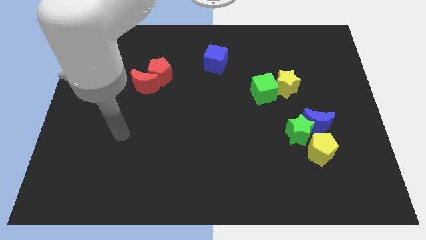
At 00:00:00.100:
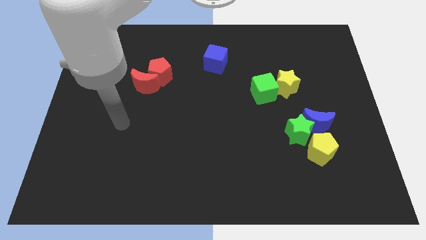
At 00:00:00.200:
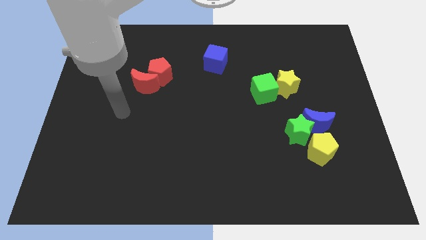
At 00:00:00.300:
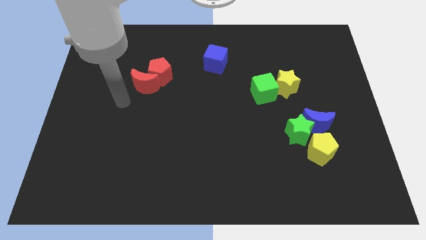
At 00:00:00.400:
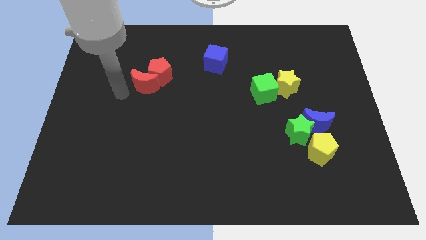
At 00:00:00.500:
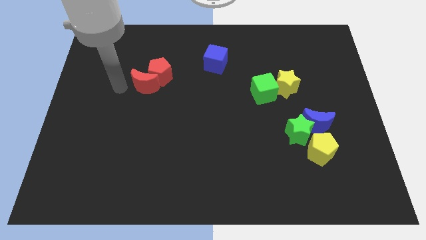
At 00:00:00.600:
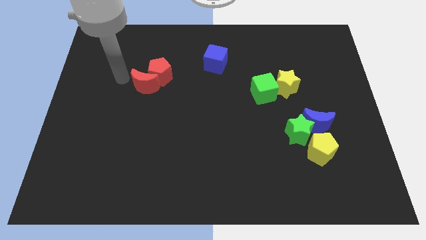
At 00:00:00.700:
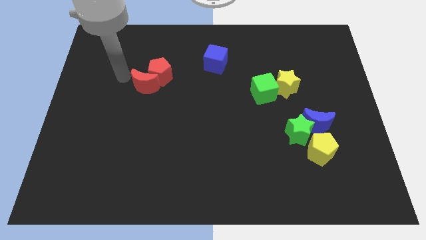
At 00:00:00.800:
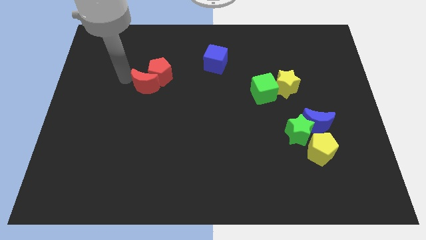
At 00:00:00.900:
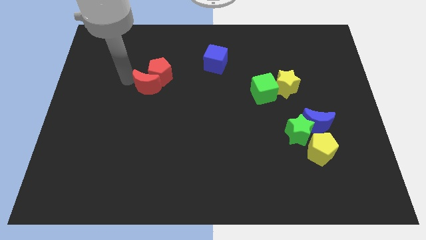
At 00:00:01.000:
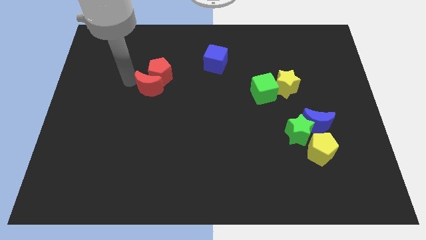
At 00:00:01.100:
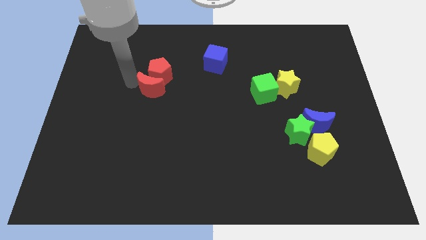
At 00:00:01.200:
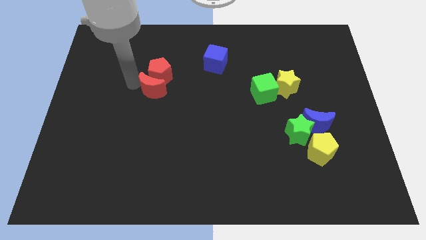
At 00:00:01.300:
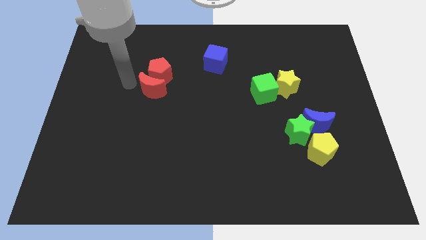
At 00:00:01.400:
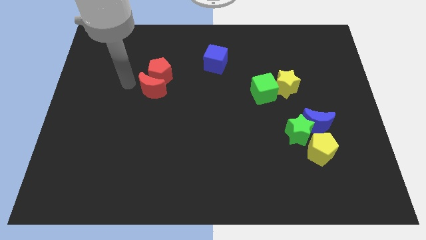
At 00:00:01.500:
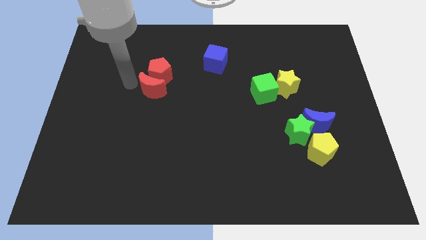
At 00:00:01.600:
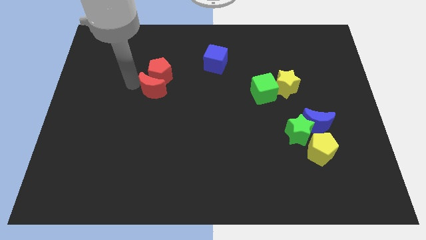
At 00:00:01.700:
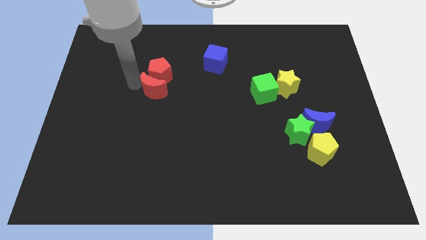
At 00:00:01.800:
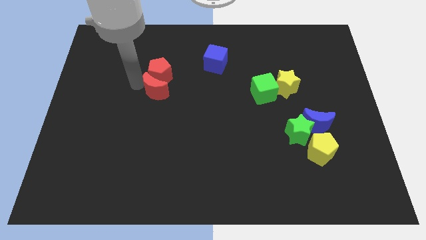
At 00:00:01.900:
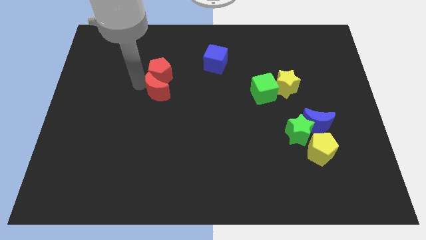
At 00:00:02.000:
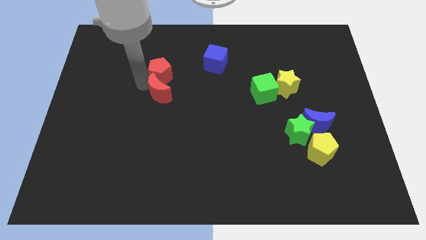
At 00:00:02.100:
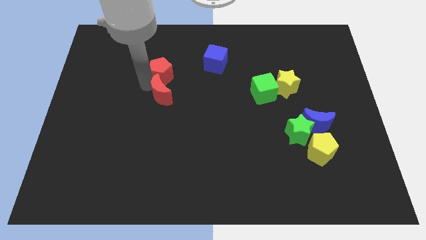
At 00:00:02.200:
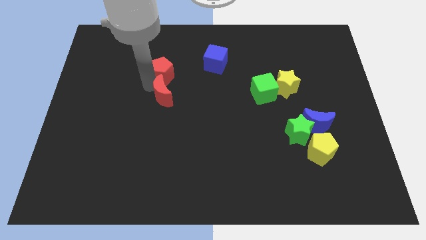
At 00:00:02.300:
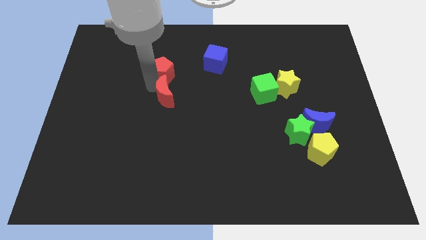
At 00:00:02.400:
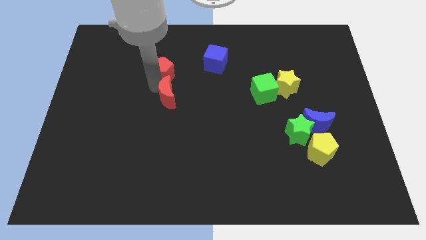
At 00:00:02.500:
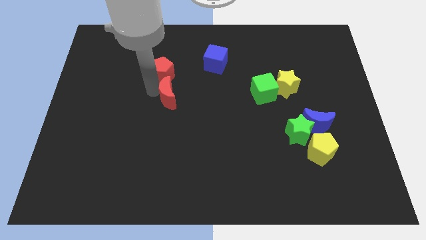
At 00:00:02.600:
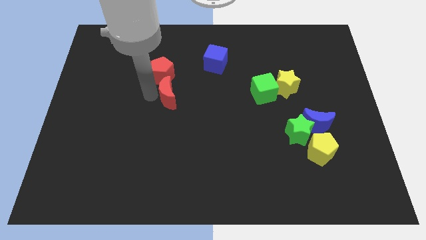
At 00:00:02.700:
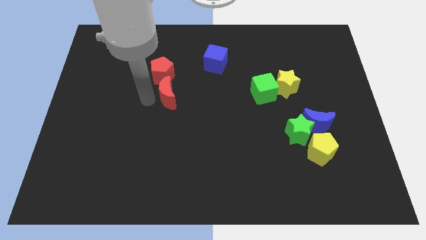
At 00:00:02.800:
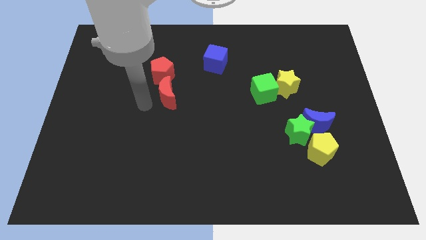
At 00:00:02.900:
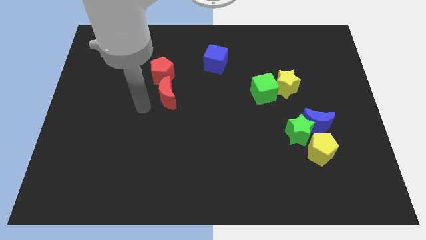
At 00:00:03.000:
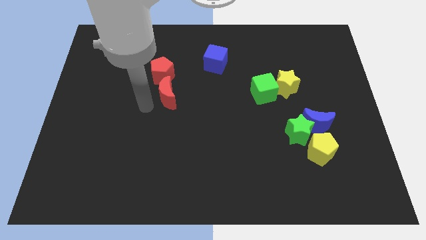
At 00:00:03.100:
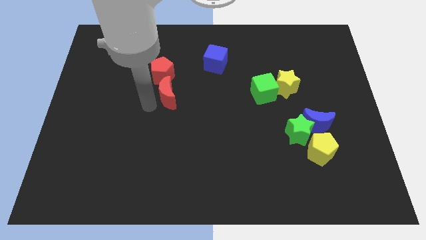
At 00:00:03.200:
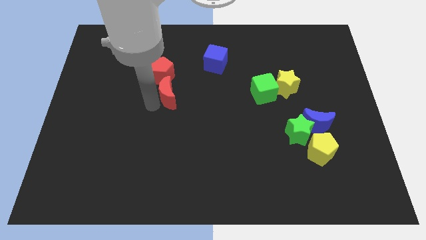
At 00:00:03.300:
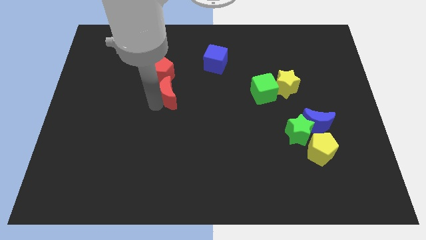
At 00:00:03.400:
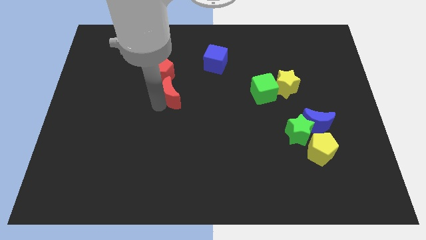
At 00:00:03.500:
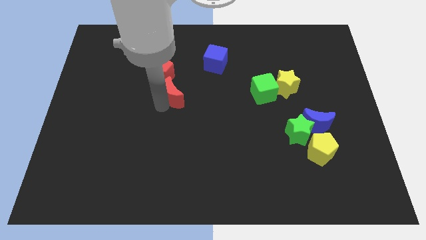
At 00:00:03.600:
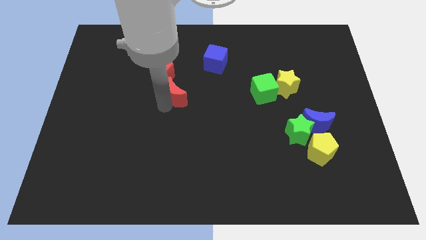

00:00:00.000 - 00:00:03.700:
move the red moon a little bit right

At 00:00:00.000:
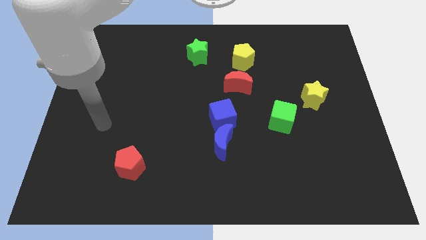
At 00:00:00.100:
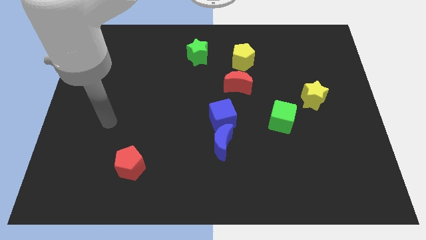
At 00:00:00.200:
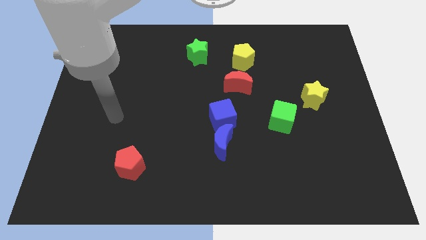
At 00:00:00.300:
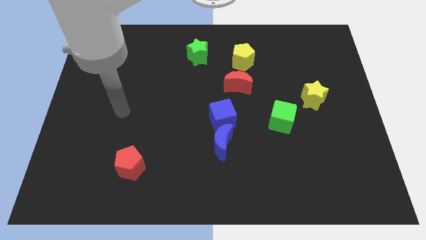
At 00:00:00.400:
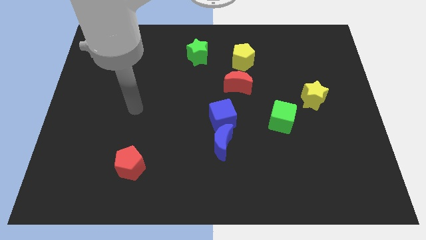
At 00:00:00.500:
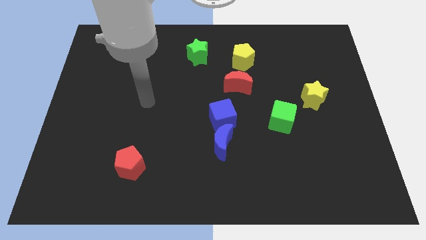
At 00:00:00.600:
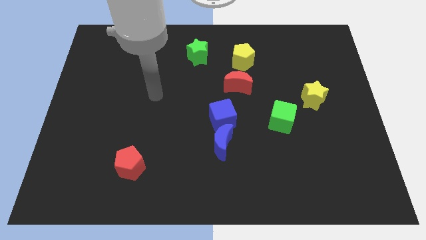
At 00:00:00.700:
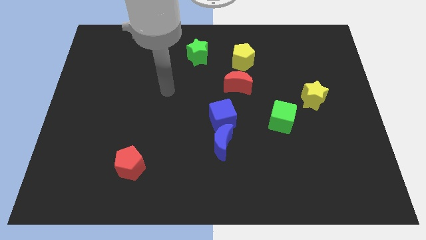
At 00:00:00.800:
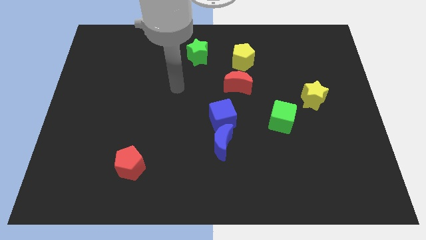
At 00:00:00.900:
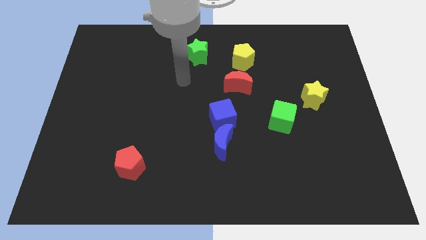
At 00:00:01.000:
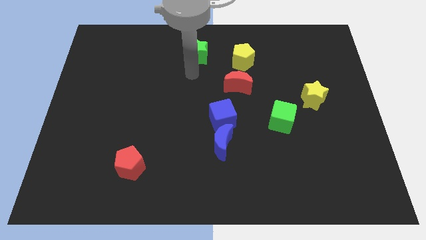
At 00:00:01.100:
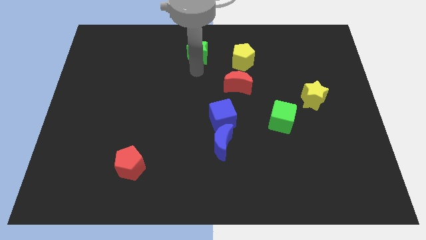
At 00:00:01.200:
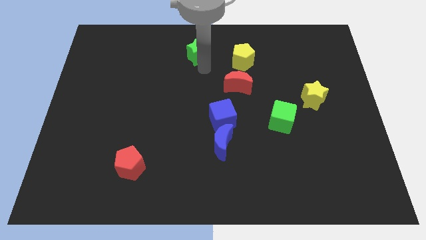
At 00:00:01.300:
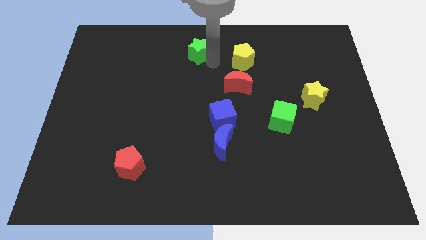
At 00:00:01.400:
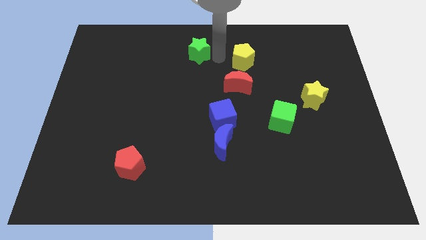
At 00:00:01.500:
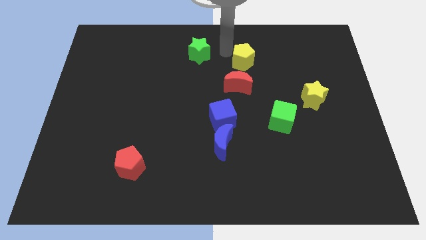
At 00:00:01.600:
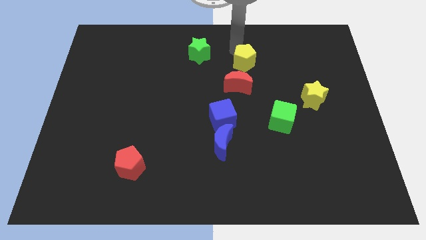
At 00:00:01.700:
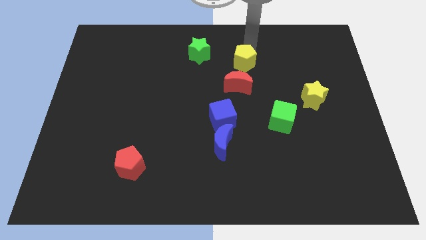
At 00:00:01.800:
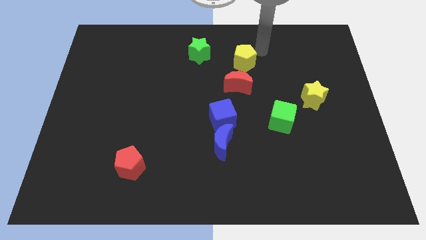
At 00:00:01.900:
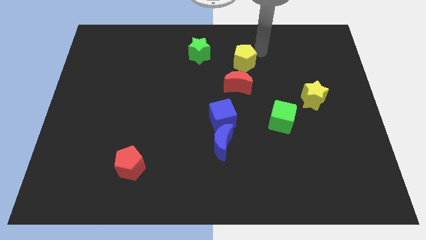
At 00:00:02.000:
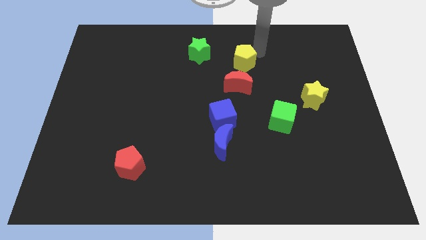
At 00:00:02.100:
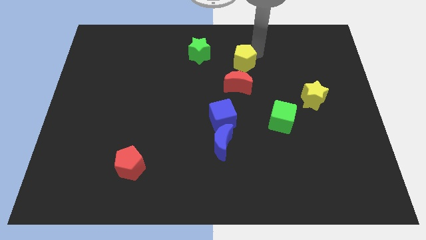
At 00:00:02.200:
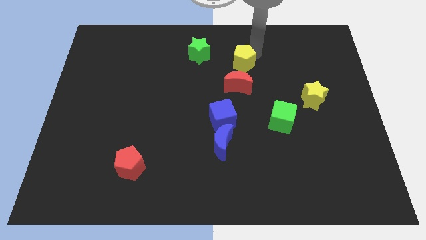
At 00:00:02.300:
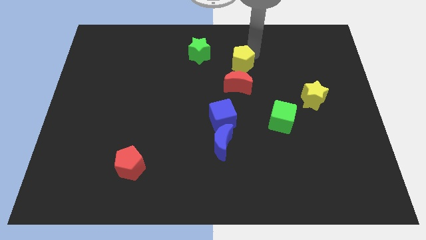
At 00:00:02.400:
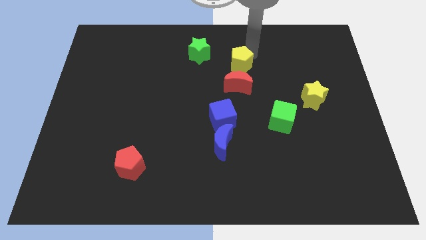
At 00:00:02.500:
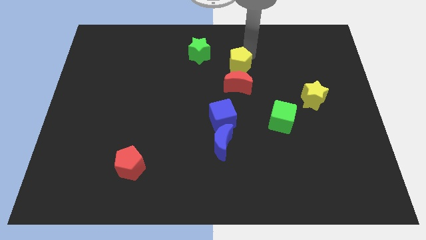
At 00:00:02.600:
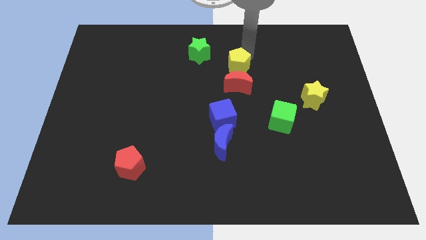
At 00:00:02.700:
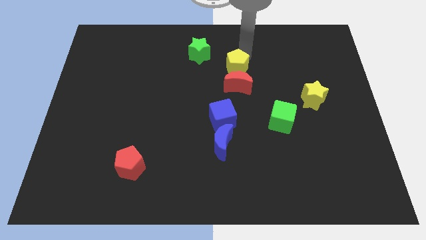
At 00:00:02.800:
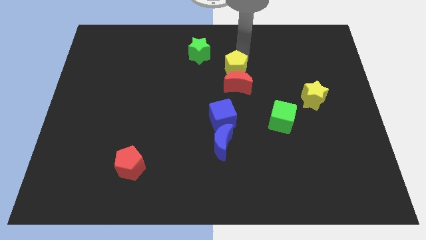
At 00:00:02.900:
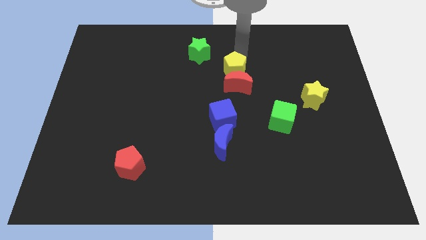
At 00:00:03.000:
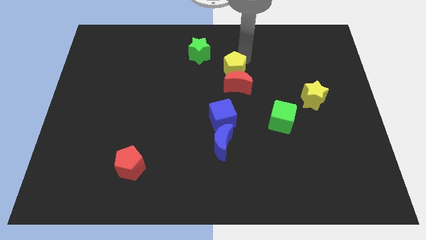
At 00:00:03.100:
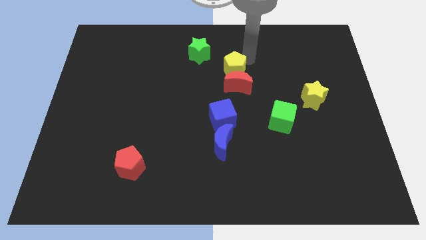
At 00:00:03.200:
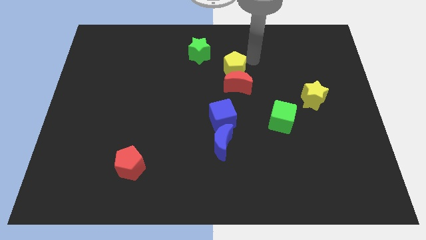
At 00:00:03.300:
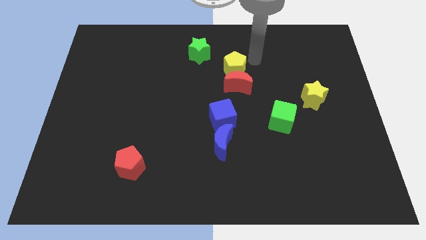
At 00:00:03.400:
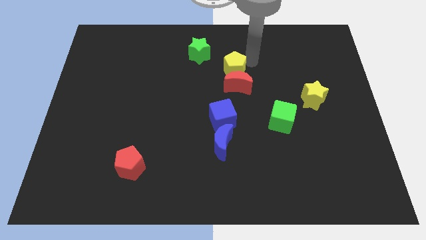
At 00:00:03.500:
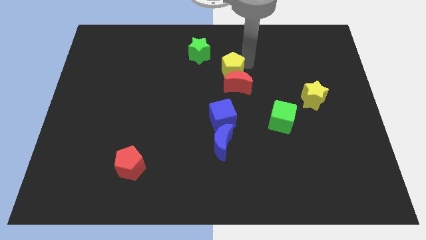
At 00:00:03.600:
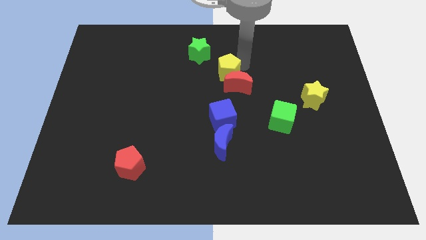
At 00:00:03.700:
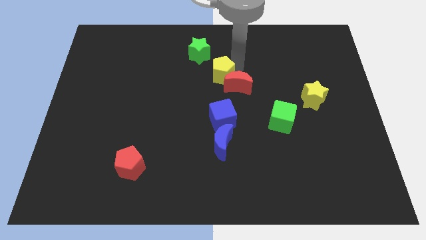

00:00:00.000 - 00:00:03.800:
slide the yellow pentagon downwards and to the left slightly

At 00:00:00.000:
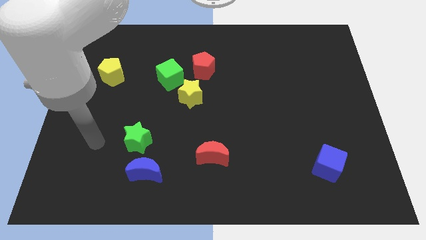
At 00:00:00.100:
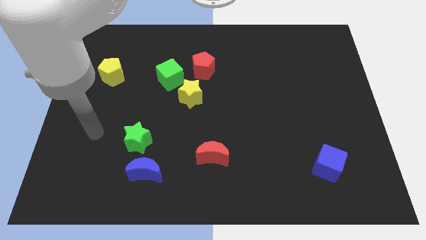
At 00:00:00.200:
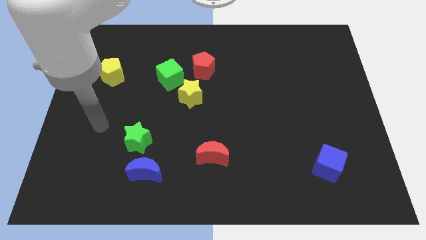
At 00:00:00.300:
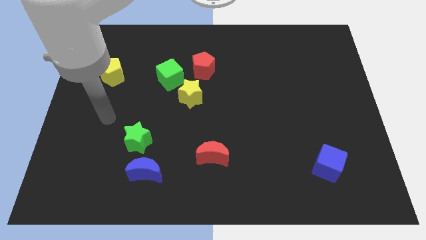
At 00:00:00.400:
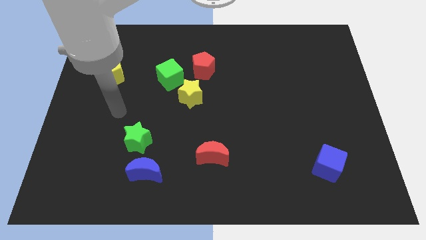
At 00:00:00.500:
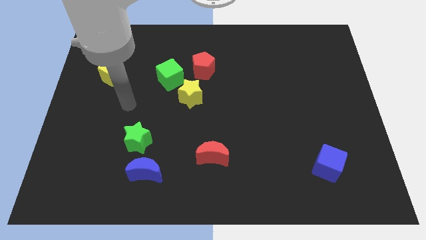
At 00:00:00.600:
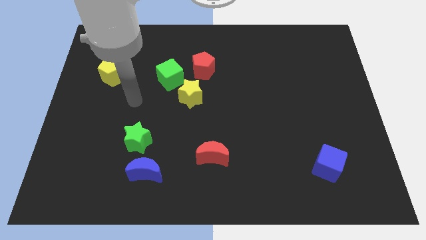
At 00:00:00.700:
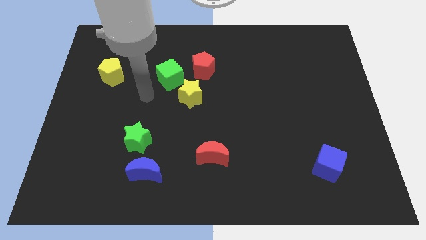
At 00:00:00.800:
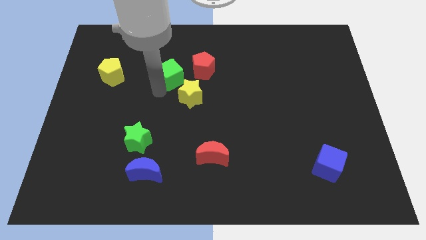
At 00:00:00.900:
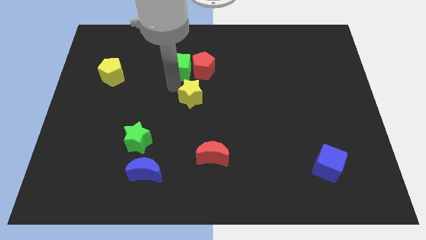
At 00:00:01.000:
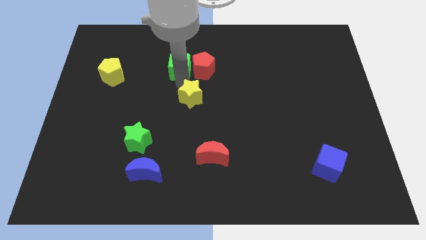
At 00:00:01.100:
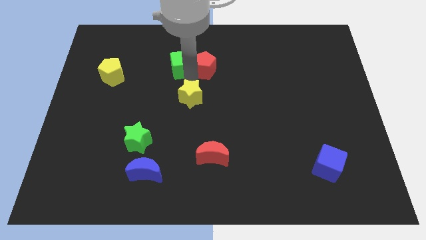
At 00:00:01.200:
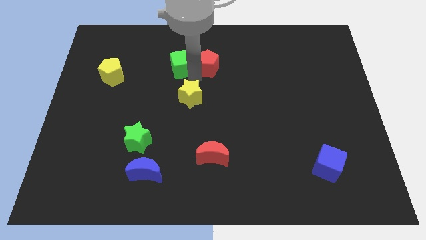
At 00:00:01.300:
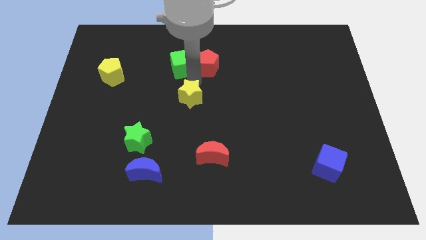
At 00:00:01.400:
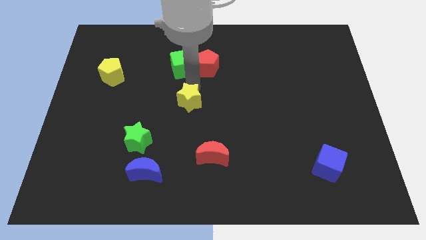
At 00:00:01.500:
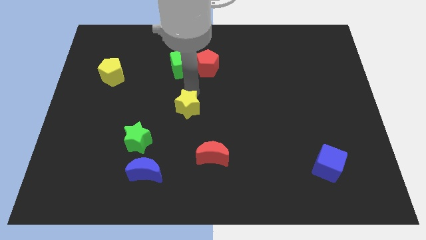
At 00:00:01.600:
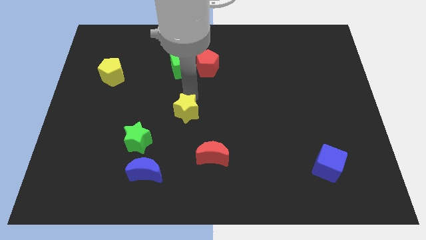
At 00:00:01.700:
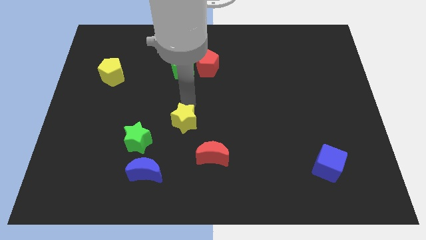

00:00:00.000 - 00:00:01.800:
slightly push the yellow star down
